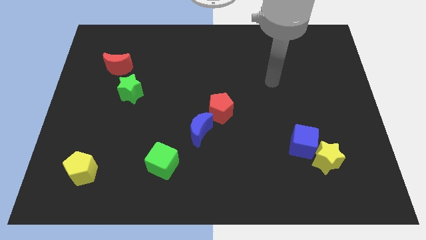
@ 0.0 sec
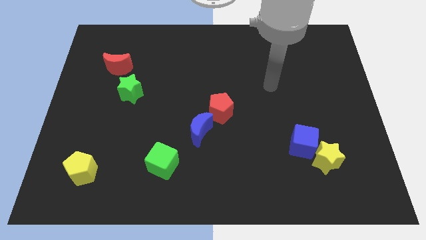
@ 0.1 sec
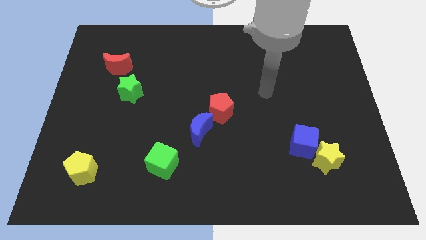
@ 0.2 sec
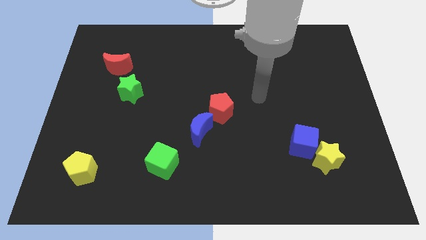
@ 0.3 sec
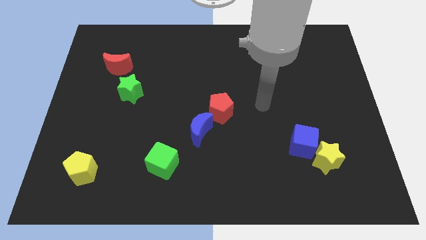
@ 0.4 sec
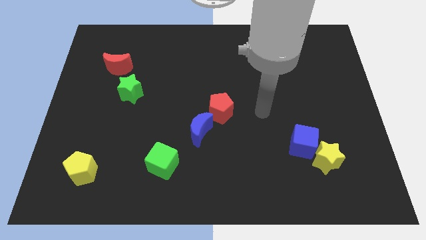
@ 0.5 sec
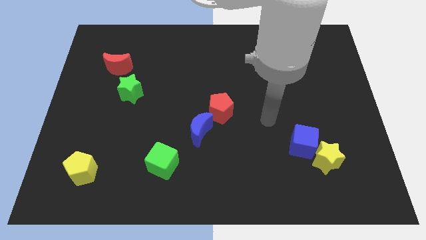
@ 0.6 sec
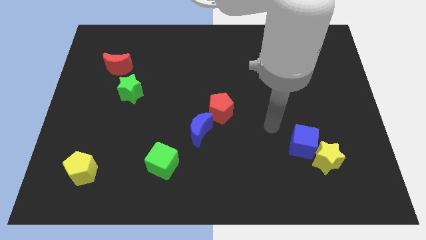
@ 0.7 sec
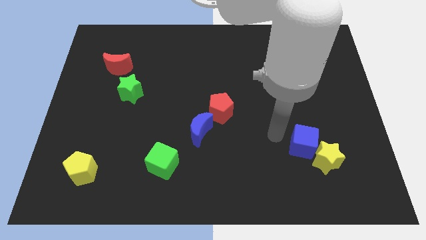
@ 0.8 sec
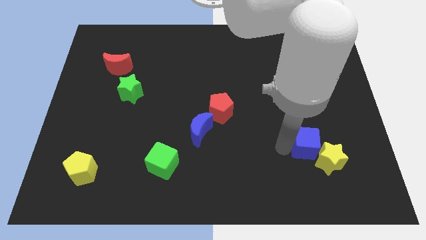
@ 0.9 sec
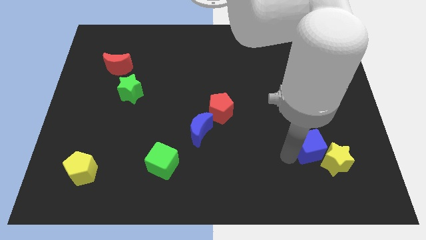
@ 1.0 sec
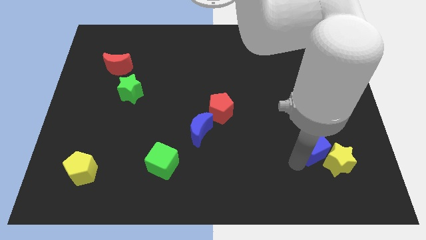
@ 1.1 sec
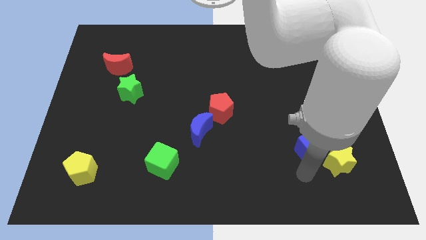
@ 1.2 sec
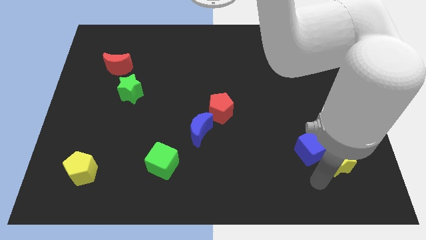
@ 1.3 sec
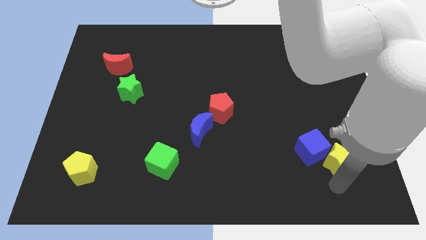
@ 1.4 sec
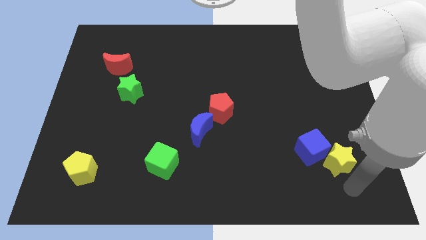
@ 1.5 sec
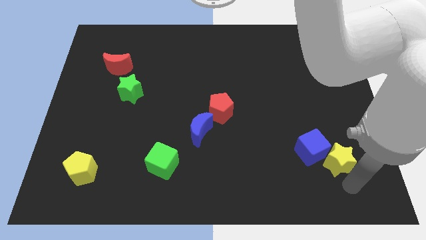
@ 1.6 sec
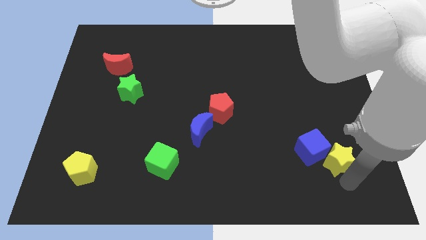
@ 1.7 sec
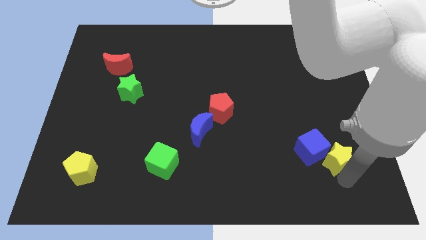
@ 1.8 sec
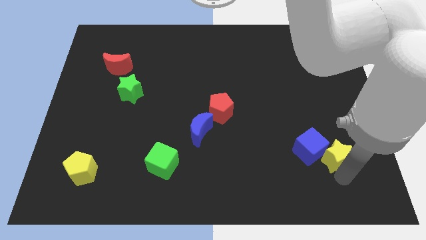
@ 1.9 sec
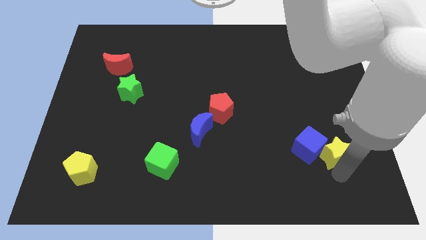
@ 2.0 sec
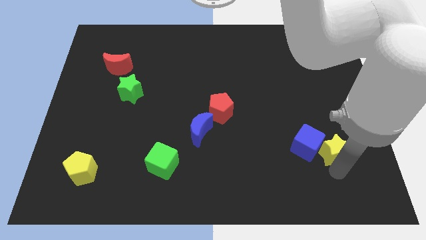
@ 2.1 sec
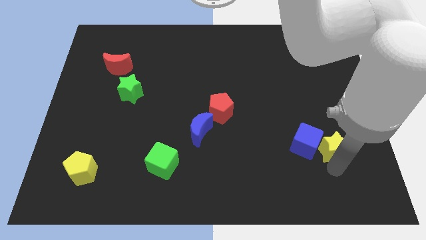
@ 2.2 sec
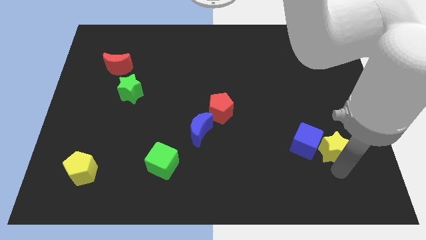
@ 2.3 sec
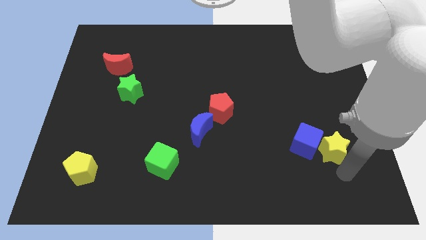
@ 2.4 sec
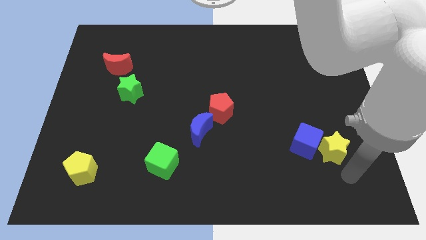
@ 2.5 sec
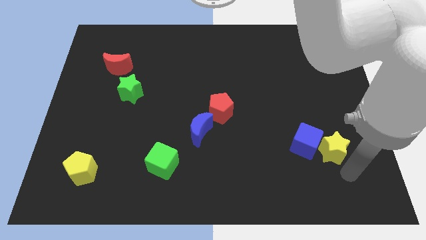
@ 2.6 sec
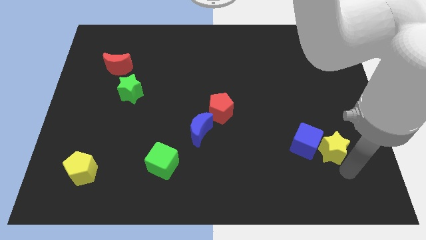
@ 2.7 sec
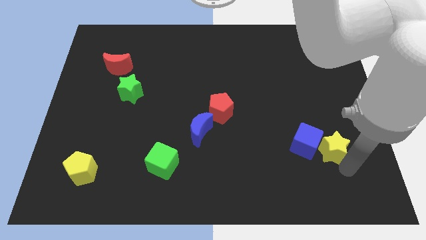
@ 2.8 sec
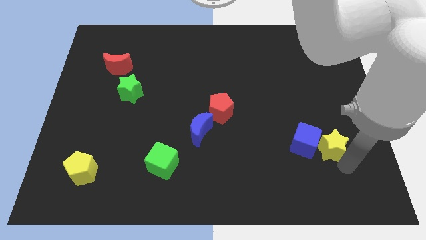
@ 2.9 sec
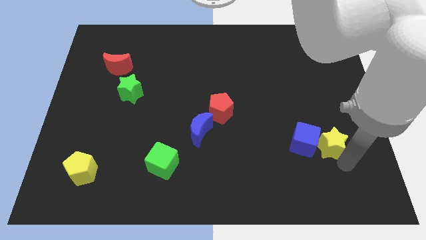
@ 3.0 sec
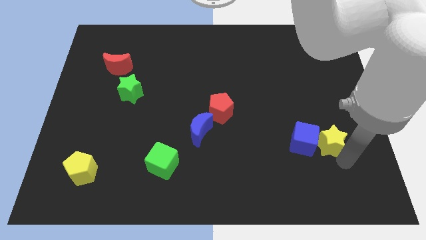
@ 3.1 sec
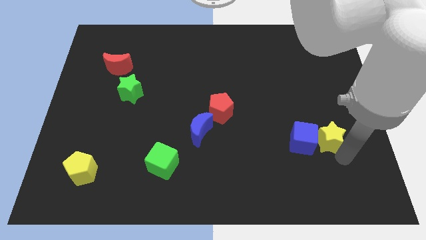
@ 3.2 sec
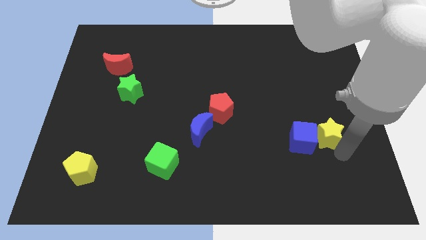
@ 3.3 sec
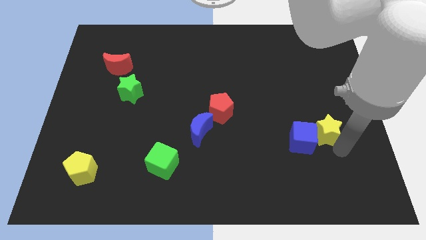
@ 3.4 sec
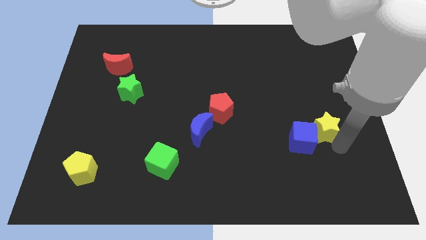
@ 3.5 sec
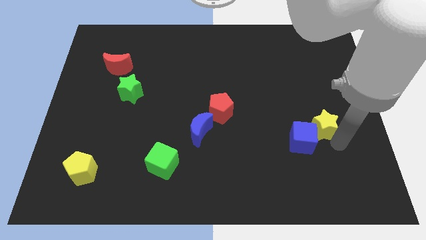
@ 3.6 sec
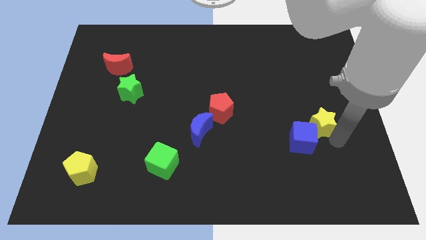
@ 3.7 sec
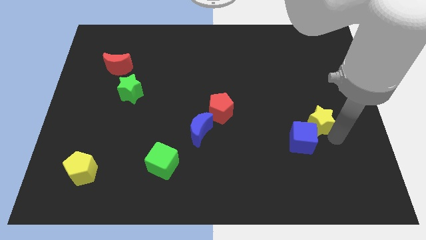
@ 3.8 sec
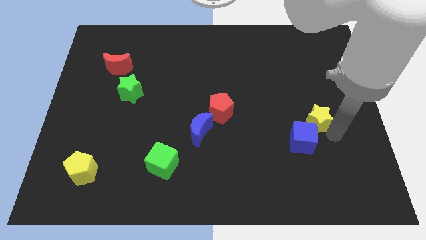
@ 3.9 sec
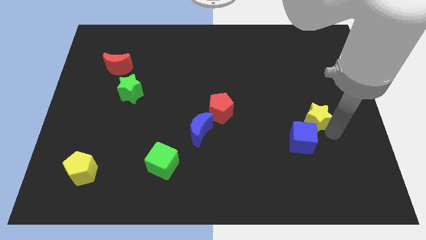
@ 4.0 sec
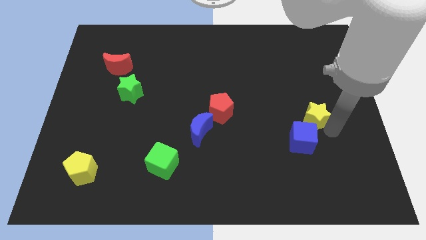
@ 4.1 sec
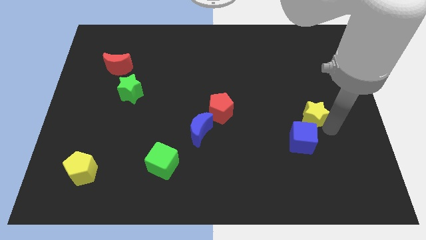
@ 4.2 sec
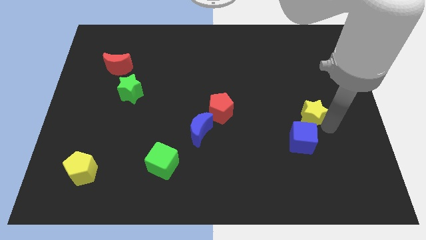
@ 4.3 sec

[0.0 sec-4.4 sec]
slide the yellow star up and left diagonally a little bit

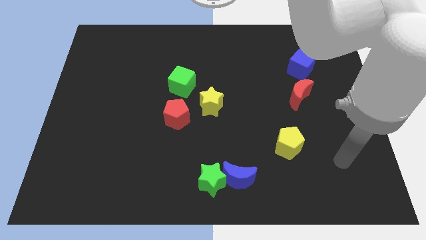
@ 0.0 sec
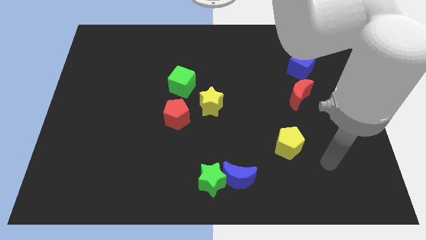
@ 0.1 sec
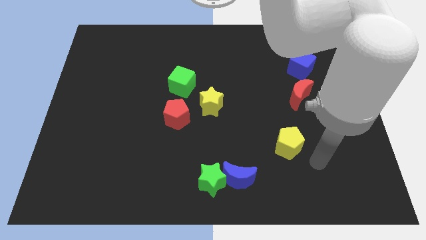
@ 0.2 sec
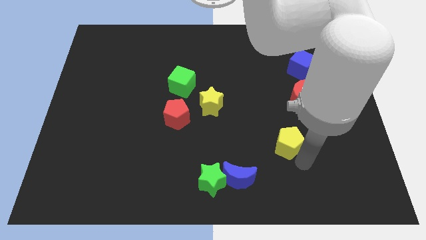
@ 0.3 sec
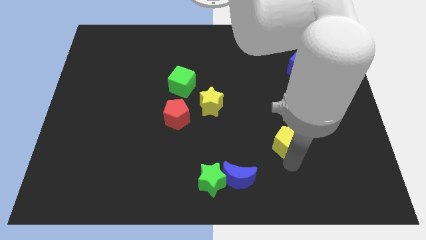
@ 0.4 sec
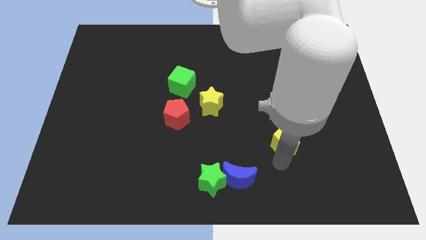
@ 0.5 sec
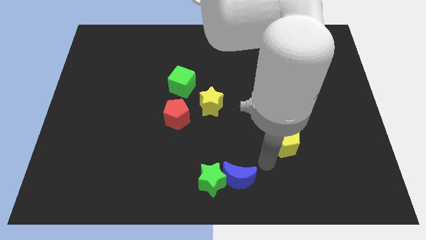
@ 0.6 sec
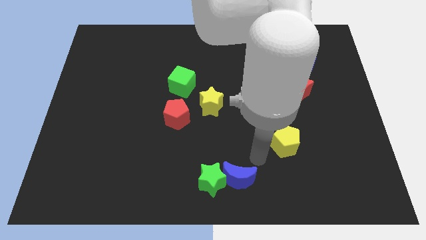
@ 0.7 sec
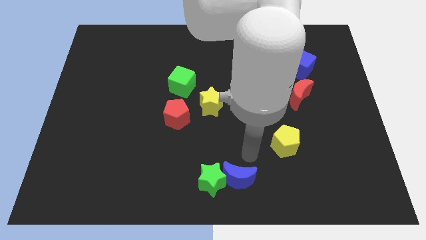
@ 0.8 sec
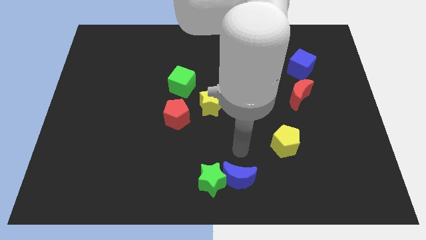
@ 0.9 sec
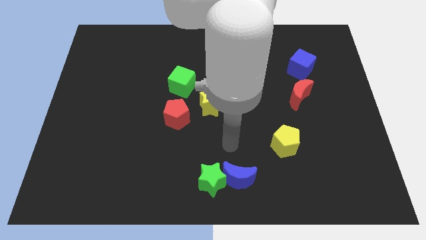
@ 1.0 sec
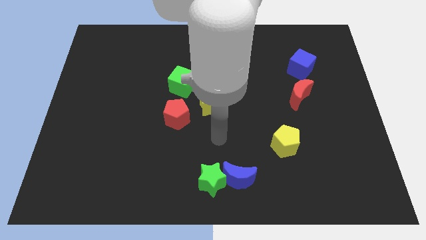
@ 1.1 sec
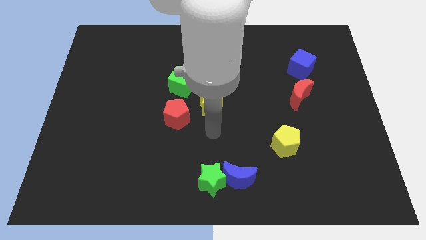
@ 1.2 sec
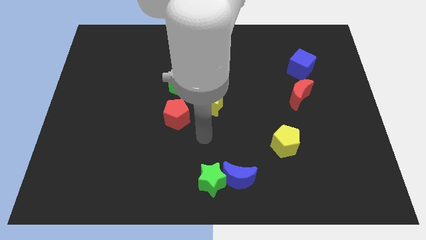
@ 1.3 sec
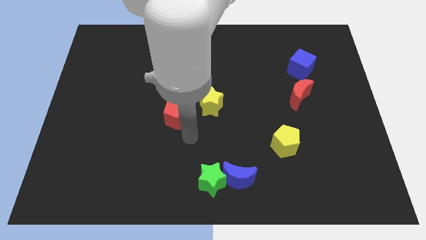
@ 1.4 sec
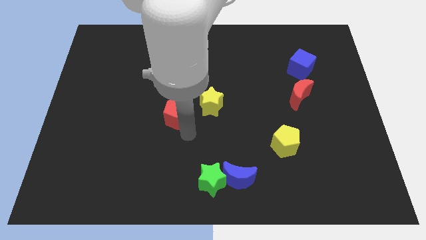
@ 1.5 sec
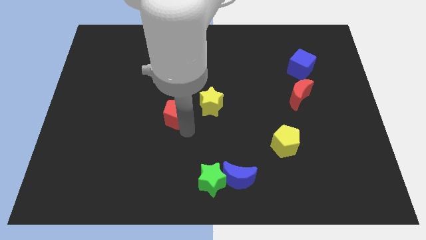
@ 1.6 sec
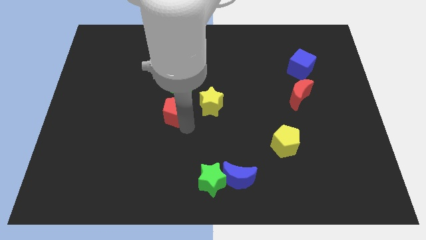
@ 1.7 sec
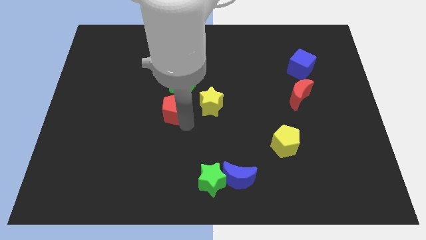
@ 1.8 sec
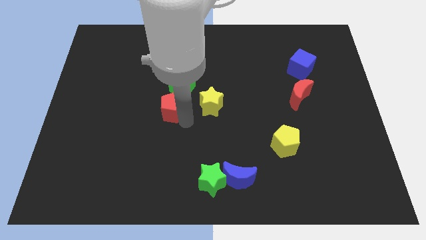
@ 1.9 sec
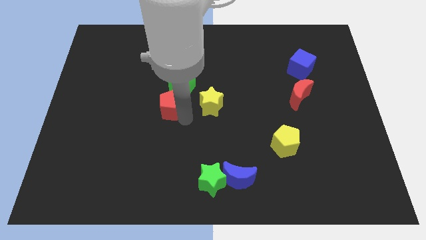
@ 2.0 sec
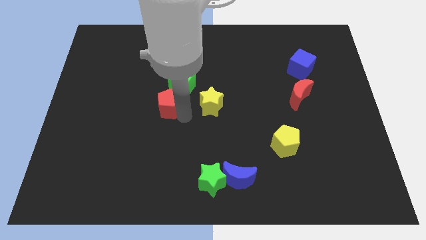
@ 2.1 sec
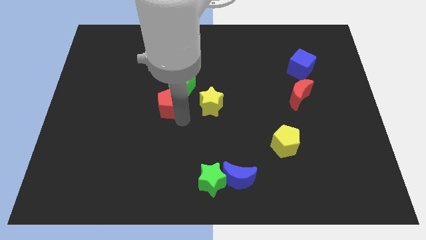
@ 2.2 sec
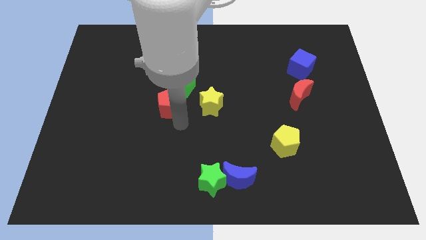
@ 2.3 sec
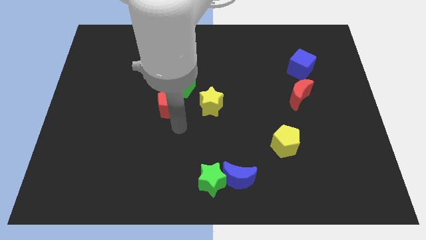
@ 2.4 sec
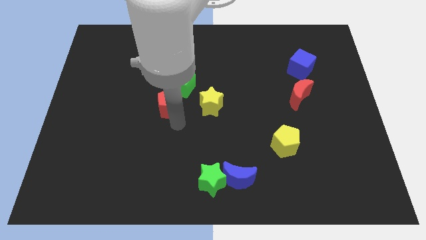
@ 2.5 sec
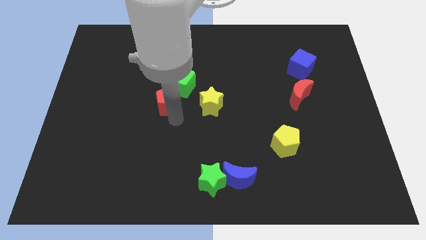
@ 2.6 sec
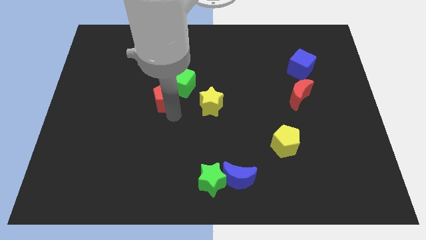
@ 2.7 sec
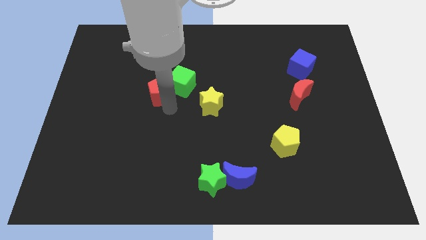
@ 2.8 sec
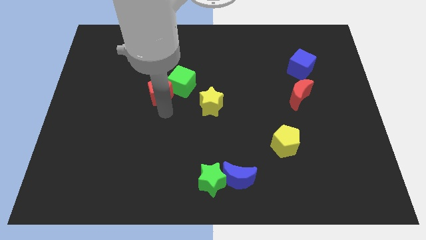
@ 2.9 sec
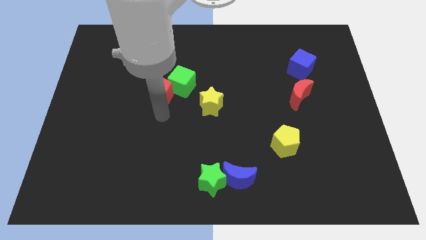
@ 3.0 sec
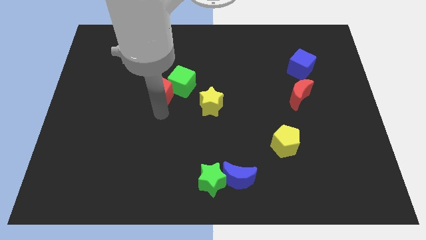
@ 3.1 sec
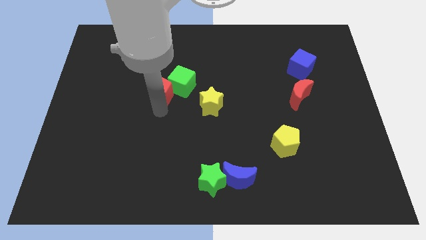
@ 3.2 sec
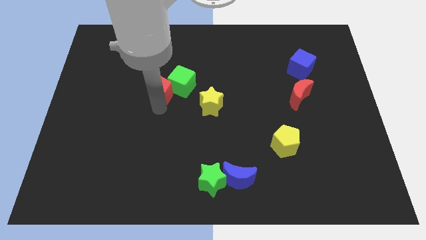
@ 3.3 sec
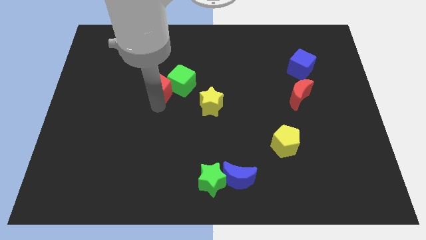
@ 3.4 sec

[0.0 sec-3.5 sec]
push the red pentagon a little bit up

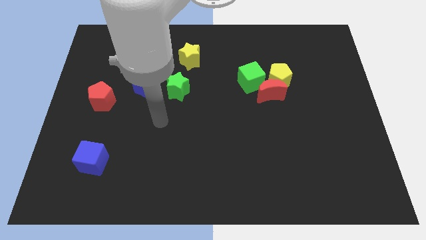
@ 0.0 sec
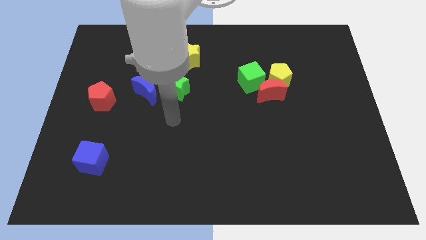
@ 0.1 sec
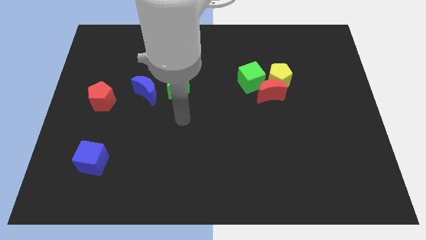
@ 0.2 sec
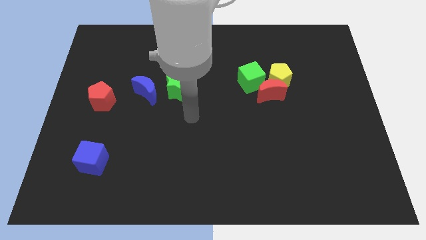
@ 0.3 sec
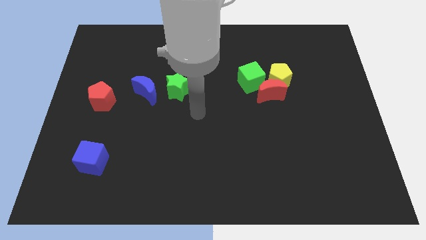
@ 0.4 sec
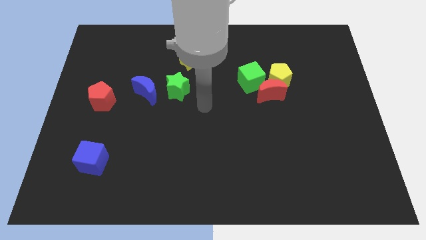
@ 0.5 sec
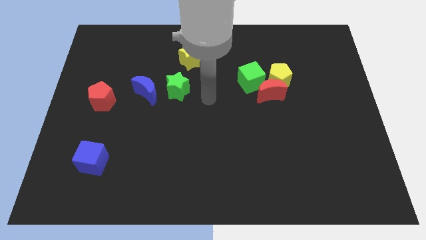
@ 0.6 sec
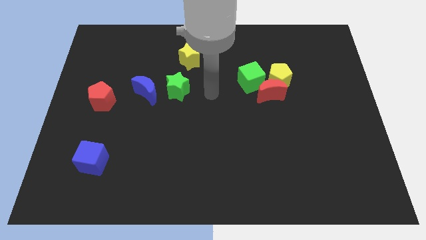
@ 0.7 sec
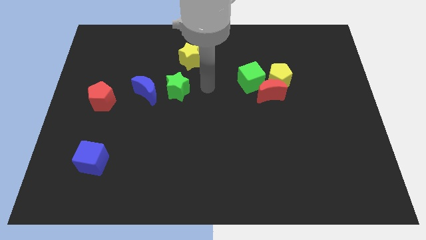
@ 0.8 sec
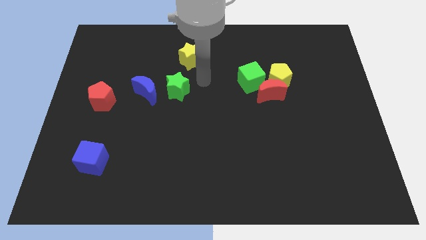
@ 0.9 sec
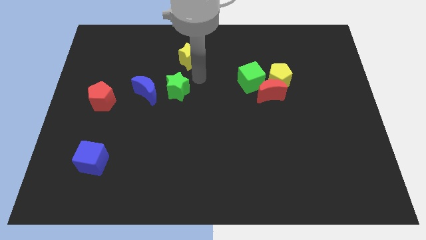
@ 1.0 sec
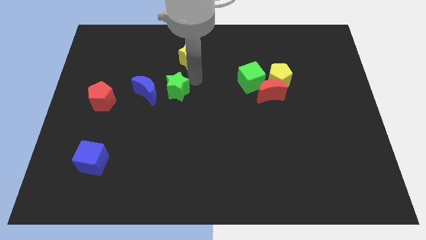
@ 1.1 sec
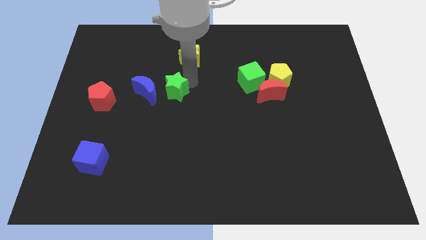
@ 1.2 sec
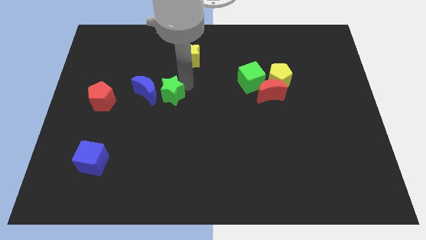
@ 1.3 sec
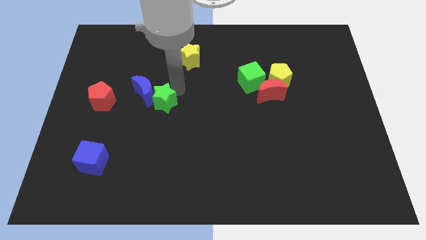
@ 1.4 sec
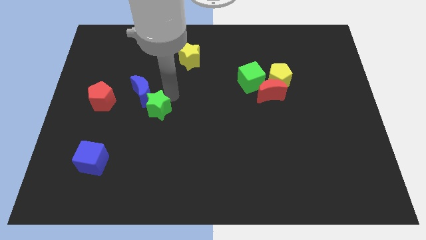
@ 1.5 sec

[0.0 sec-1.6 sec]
slide the green star a bit down and left diagonally
